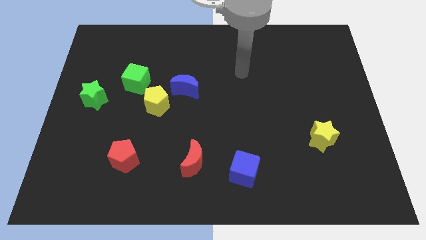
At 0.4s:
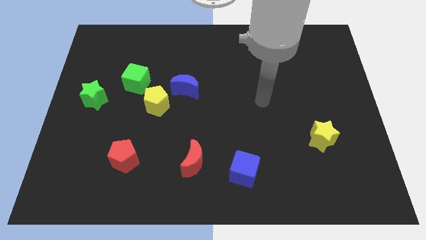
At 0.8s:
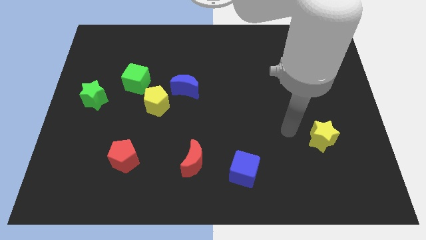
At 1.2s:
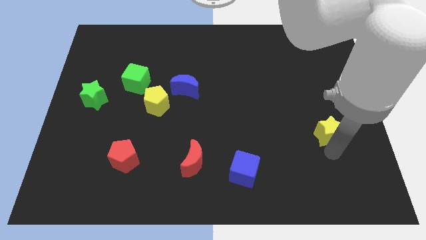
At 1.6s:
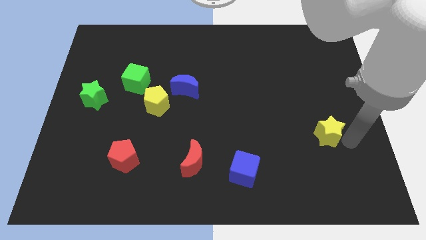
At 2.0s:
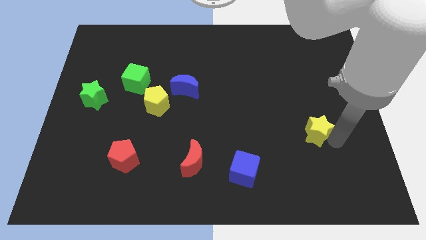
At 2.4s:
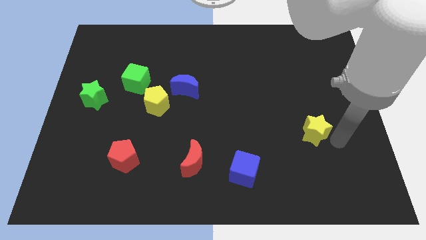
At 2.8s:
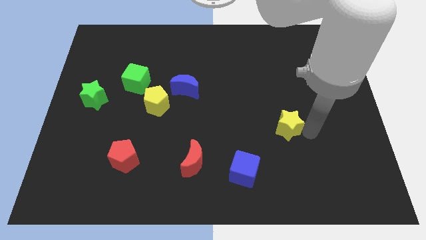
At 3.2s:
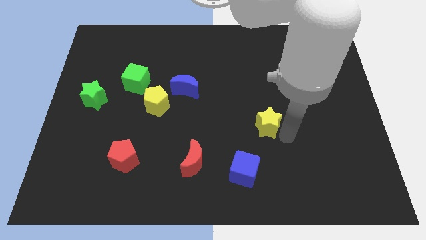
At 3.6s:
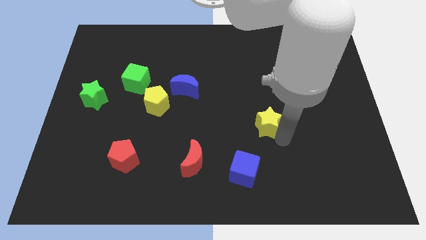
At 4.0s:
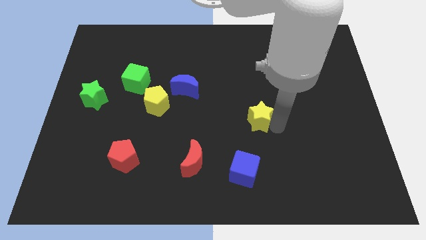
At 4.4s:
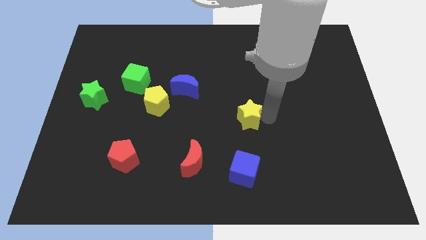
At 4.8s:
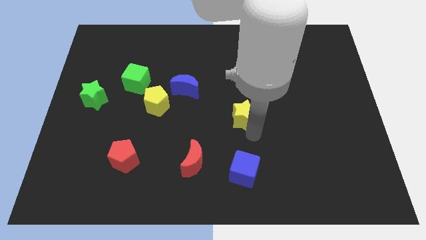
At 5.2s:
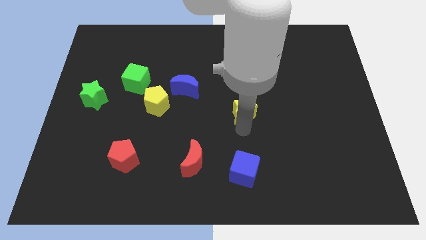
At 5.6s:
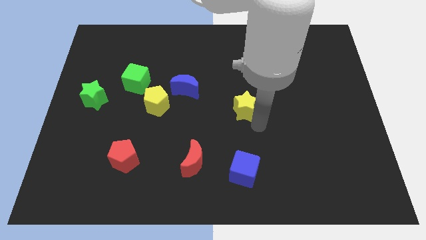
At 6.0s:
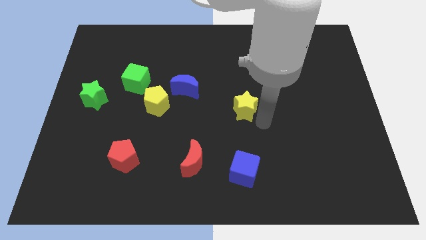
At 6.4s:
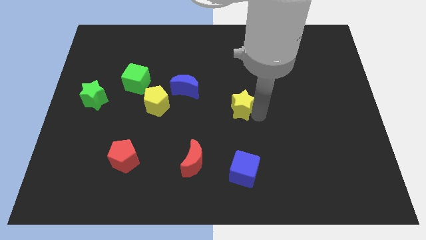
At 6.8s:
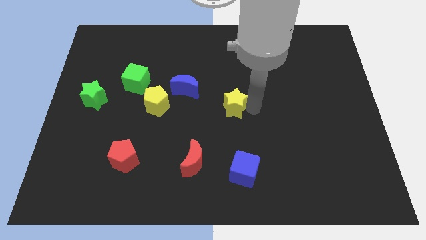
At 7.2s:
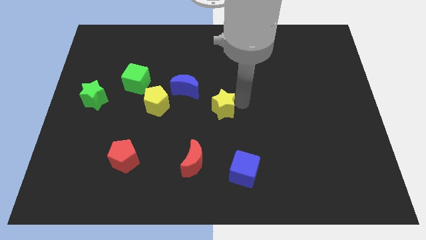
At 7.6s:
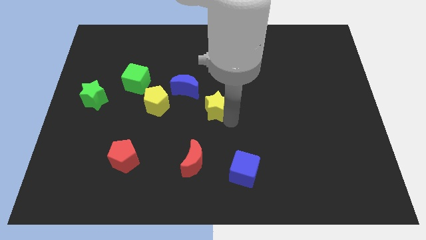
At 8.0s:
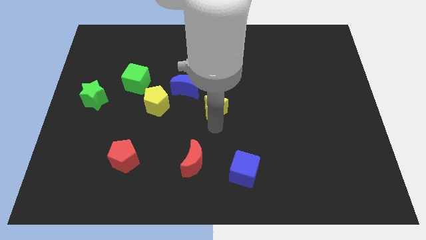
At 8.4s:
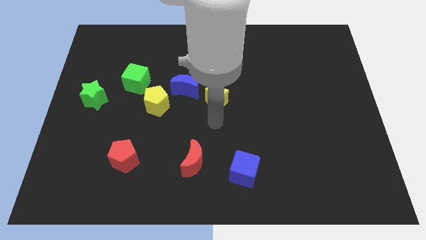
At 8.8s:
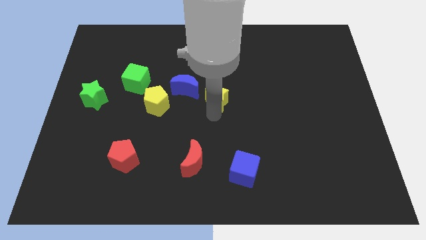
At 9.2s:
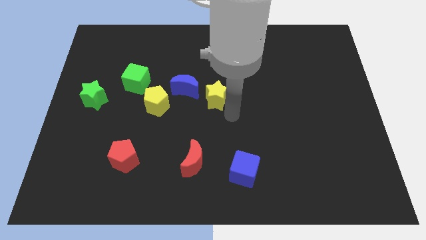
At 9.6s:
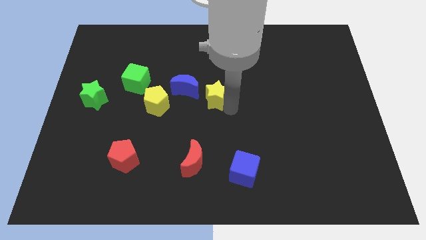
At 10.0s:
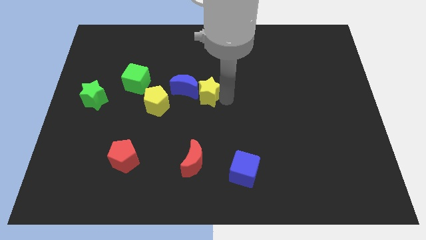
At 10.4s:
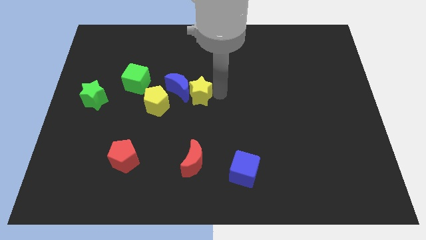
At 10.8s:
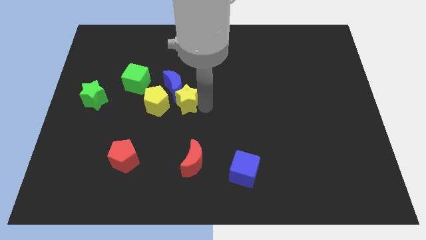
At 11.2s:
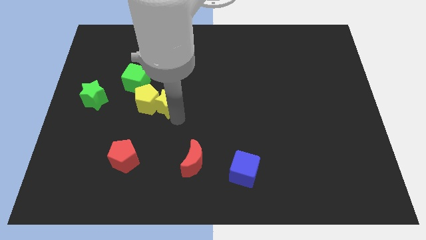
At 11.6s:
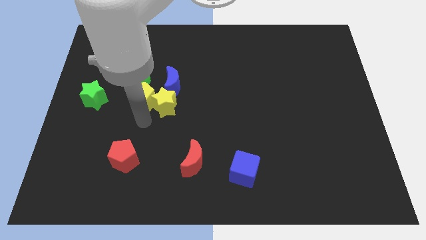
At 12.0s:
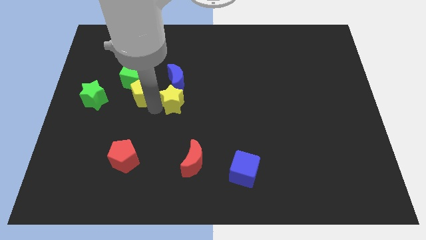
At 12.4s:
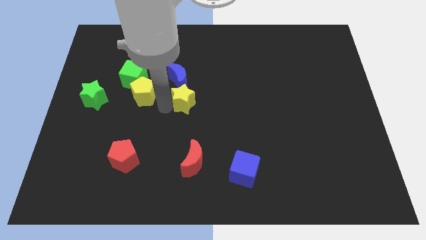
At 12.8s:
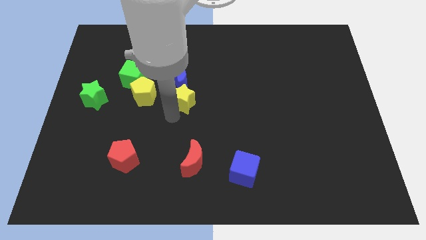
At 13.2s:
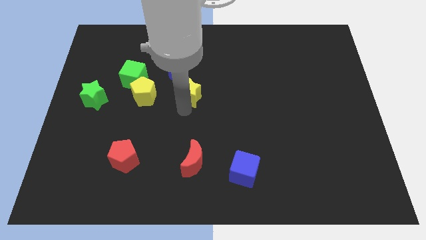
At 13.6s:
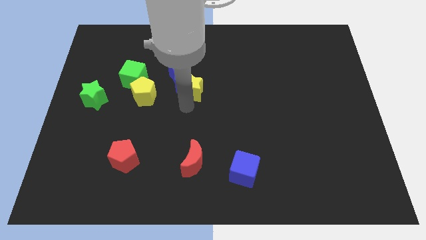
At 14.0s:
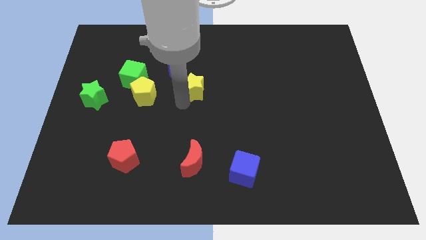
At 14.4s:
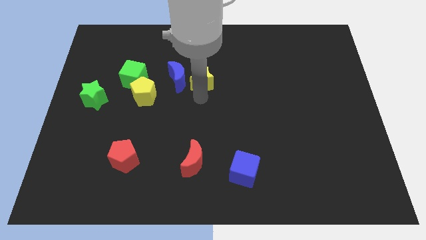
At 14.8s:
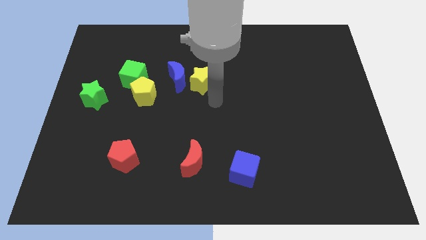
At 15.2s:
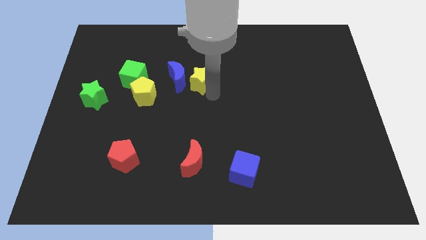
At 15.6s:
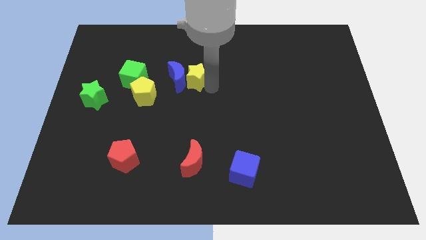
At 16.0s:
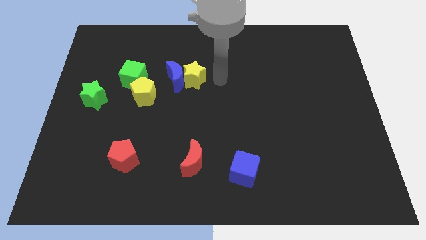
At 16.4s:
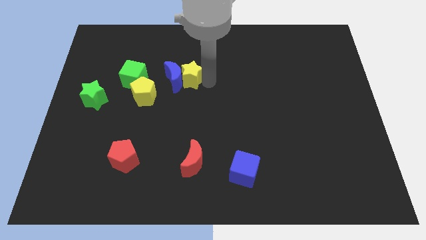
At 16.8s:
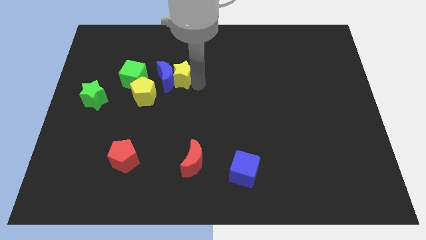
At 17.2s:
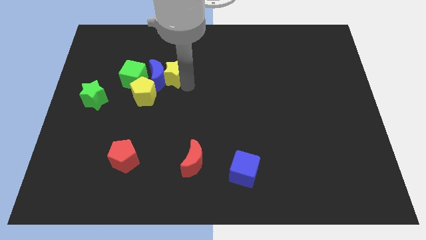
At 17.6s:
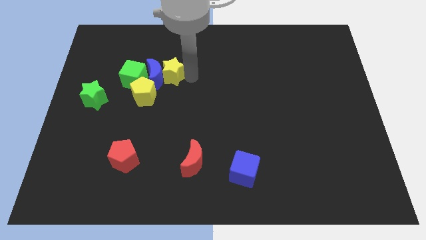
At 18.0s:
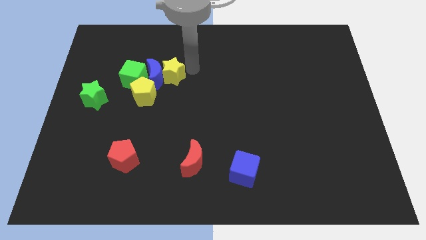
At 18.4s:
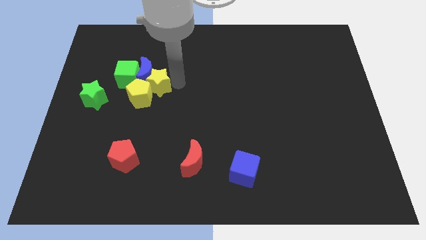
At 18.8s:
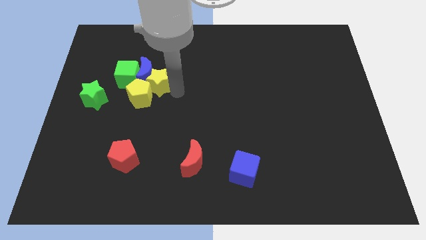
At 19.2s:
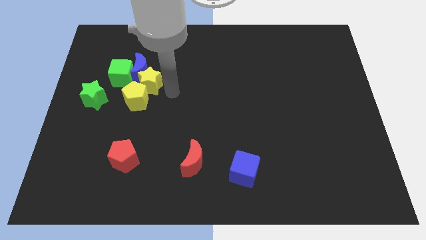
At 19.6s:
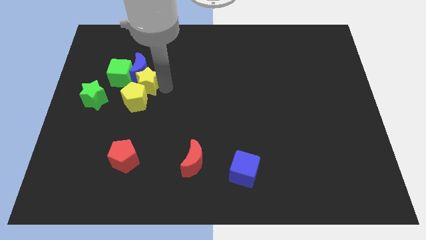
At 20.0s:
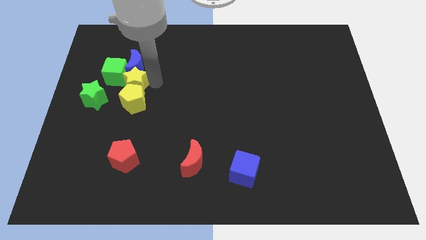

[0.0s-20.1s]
push the yellow star next to the green cube

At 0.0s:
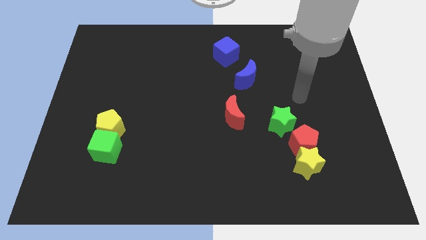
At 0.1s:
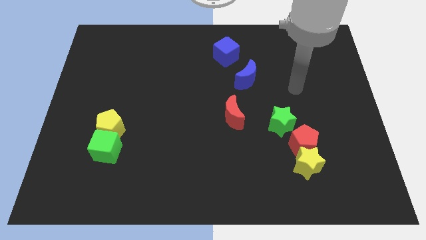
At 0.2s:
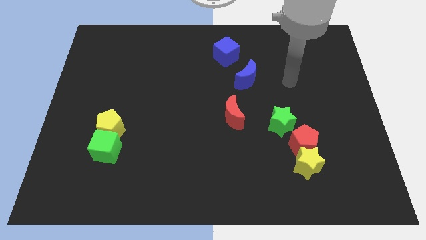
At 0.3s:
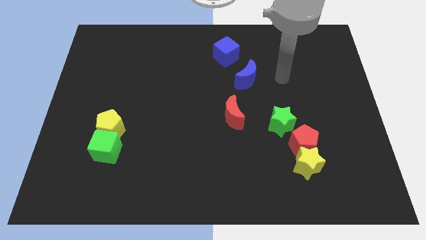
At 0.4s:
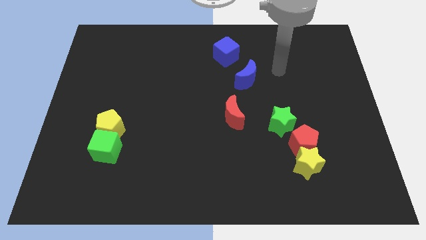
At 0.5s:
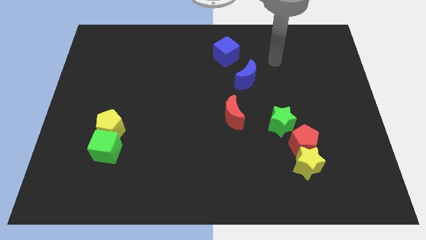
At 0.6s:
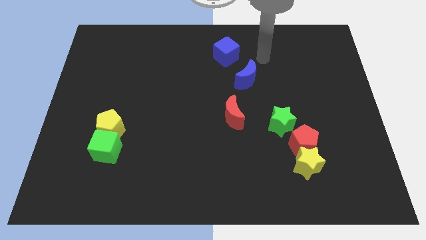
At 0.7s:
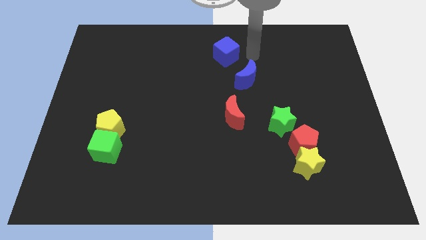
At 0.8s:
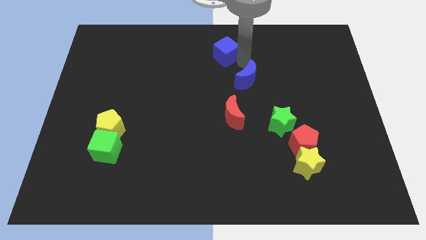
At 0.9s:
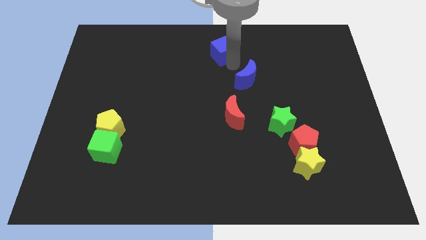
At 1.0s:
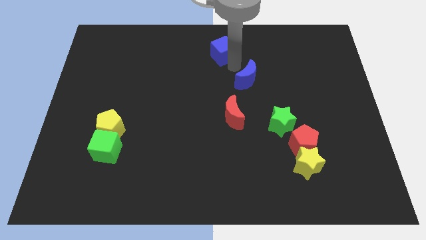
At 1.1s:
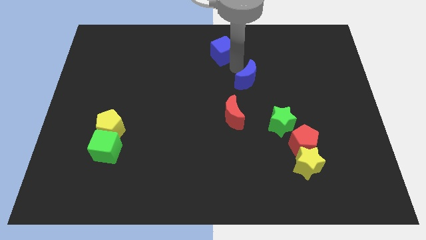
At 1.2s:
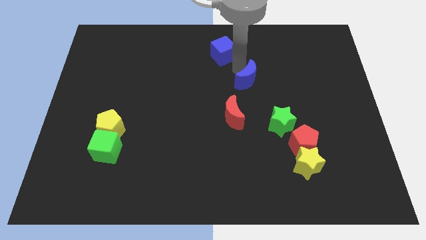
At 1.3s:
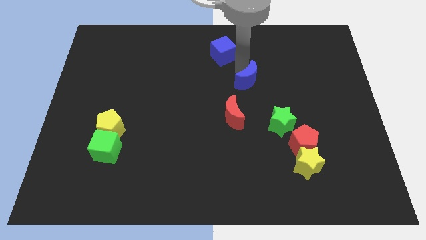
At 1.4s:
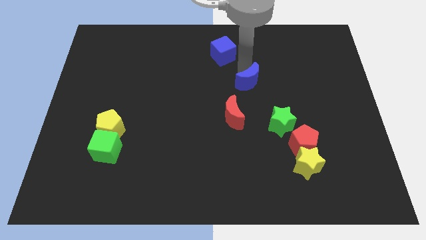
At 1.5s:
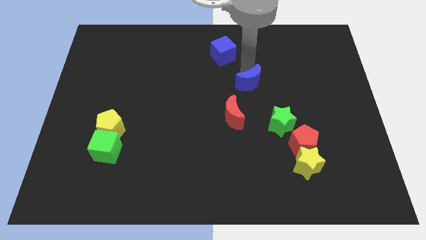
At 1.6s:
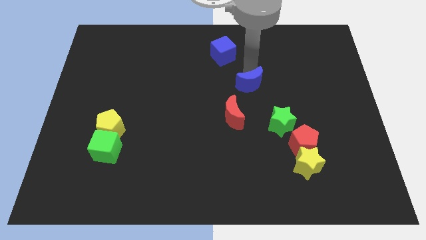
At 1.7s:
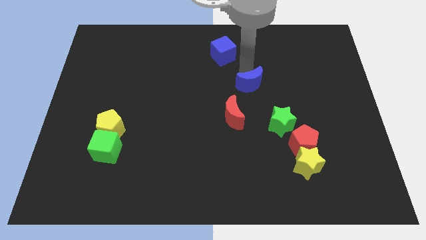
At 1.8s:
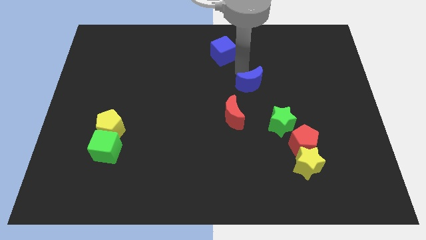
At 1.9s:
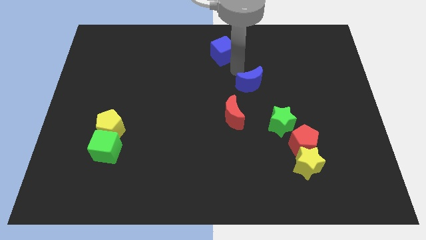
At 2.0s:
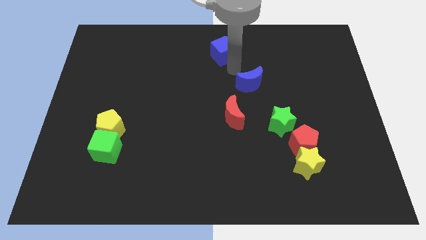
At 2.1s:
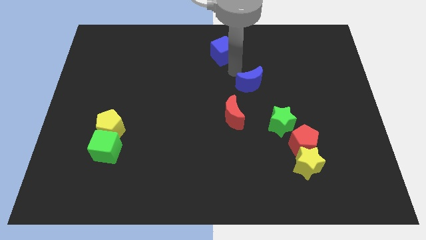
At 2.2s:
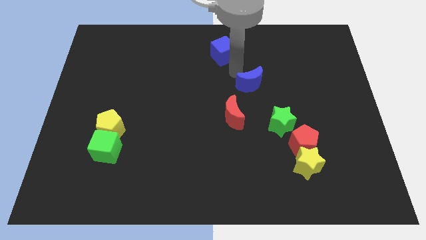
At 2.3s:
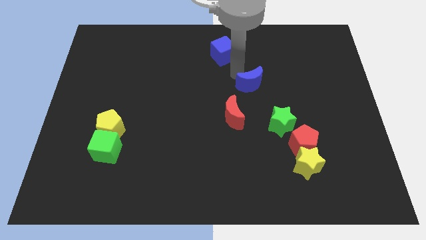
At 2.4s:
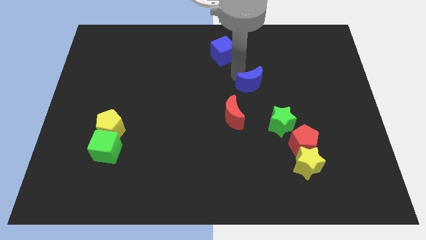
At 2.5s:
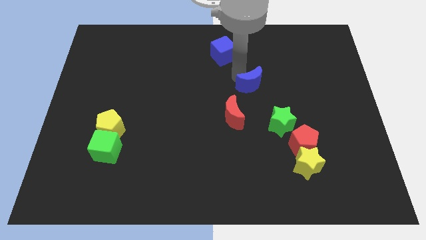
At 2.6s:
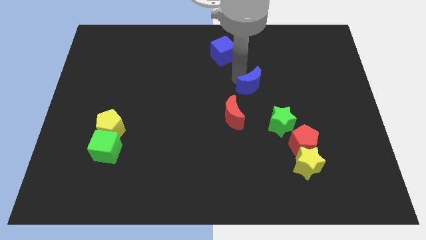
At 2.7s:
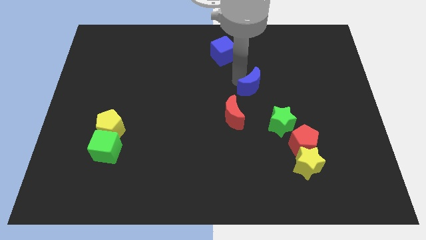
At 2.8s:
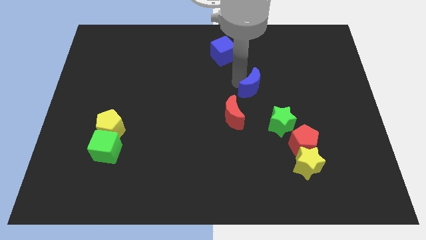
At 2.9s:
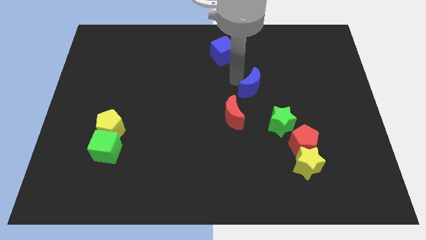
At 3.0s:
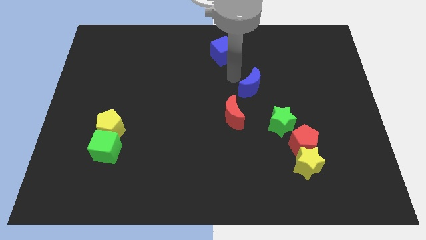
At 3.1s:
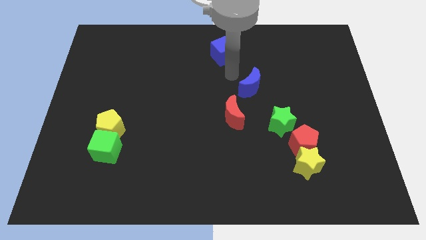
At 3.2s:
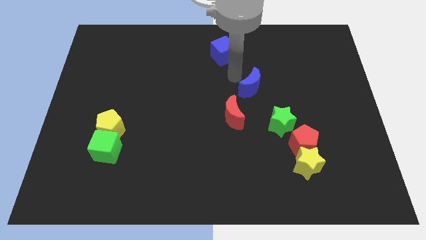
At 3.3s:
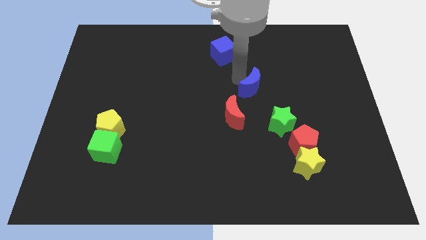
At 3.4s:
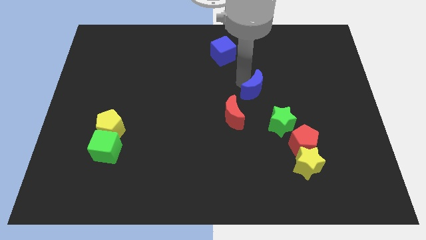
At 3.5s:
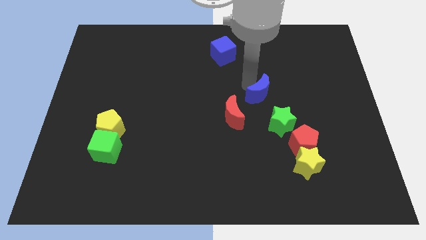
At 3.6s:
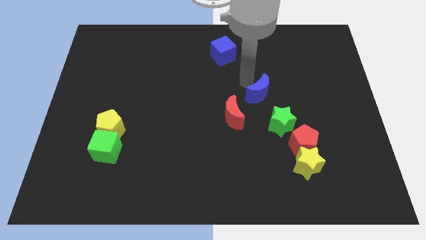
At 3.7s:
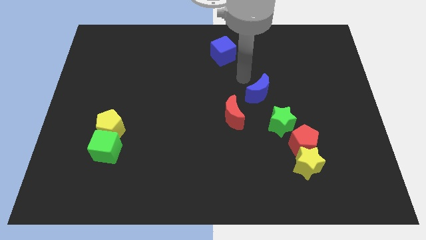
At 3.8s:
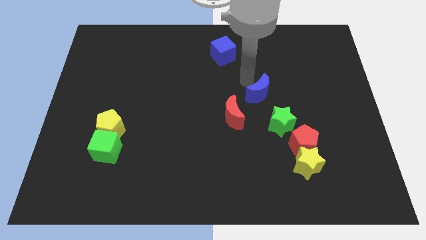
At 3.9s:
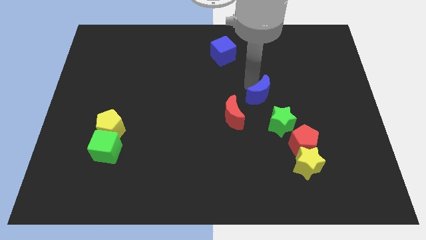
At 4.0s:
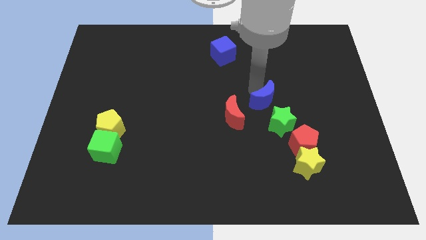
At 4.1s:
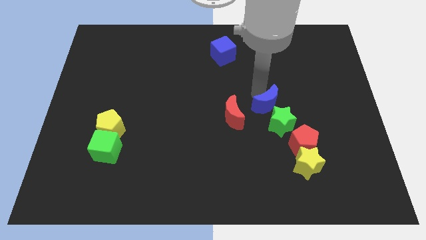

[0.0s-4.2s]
slide the blue moon next to the green star
